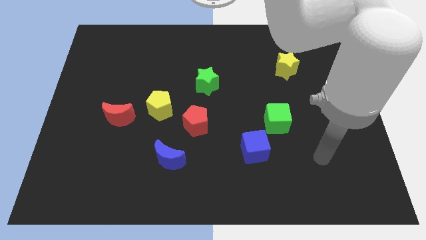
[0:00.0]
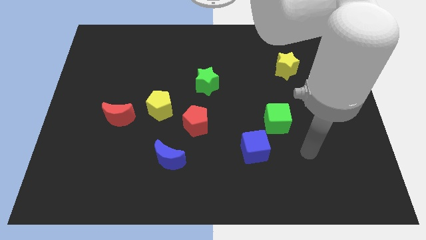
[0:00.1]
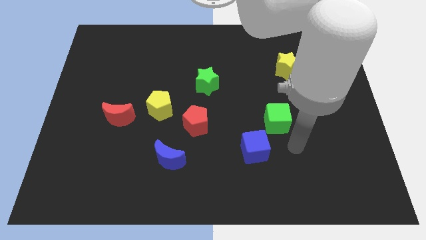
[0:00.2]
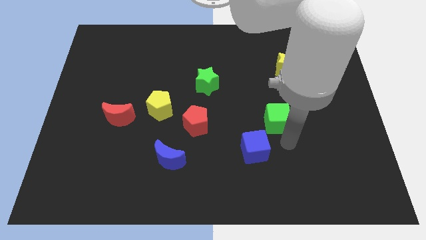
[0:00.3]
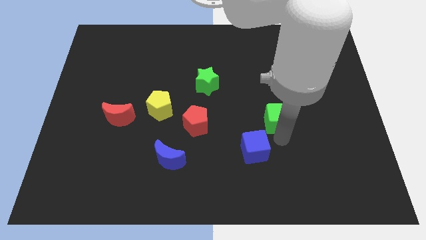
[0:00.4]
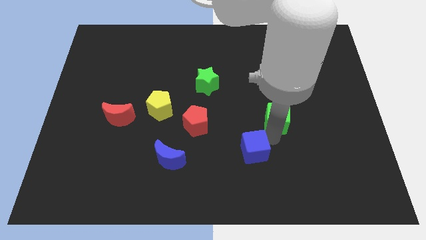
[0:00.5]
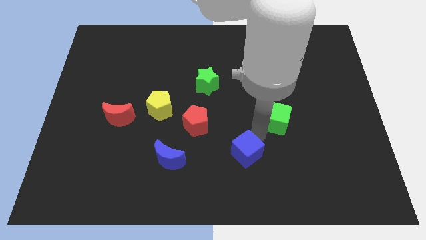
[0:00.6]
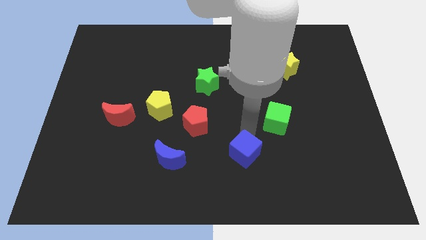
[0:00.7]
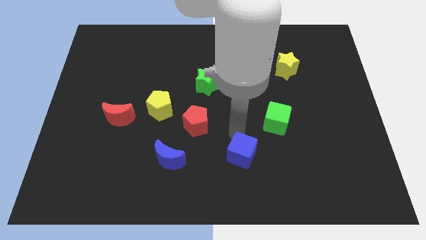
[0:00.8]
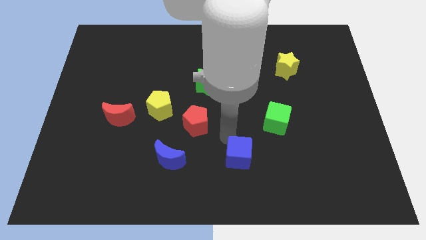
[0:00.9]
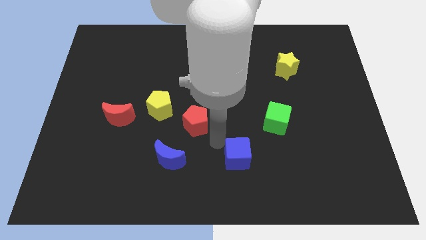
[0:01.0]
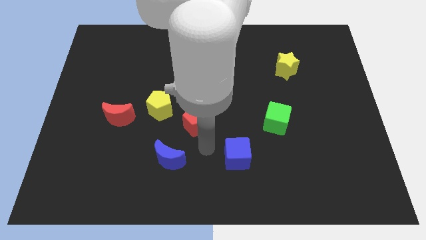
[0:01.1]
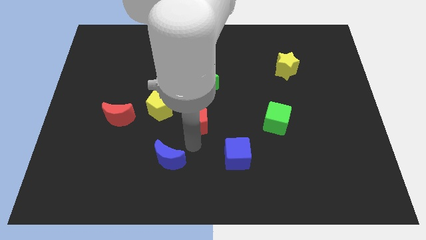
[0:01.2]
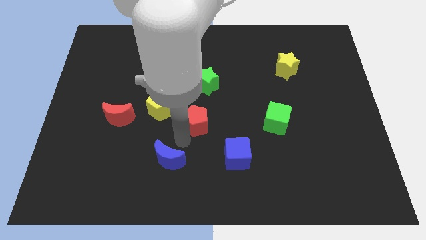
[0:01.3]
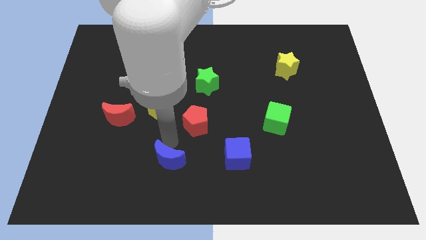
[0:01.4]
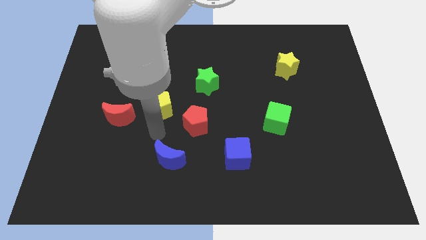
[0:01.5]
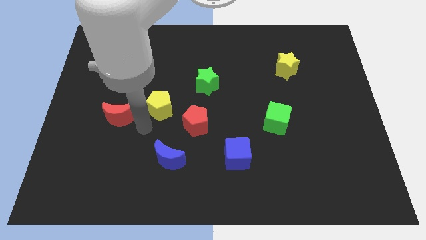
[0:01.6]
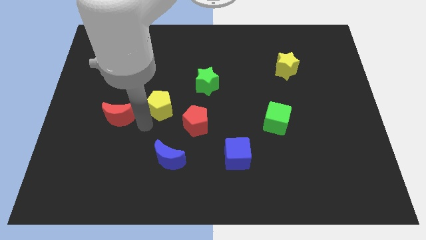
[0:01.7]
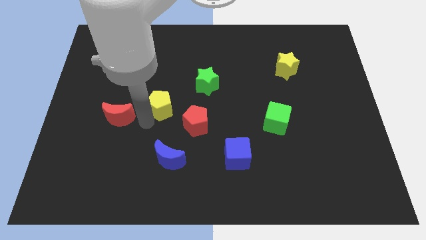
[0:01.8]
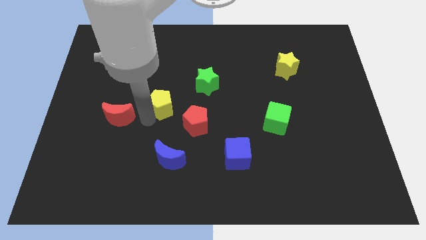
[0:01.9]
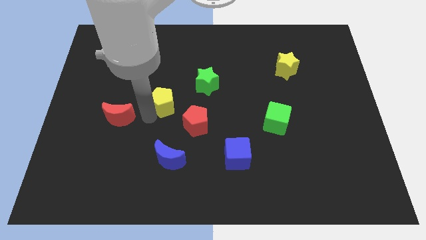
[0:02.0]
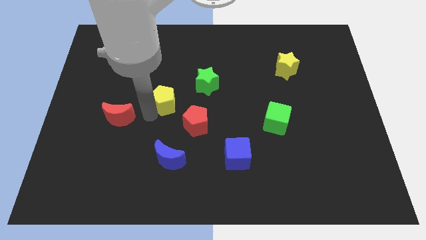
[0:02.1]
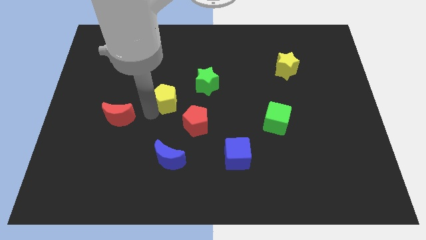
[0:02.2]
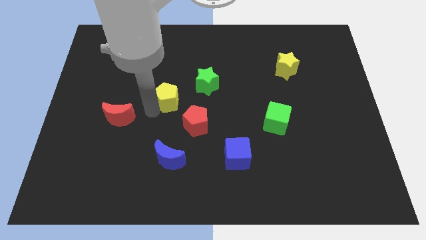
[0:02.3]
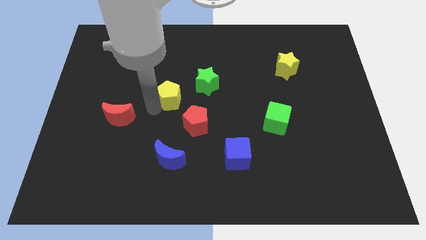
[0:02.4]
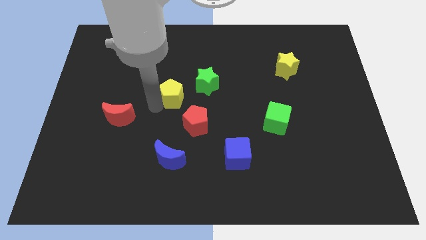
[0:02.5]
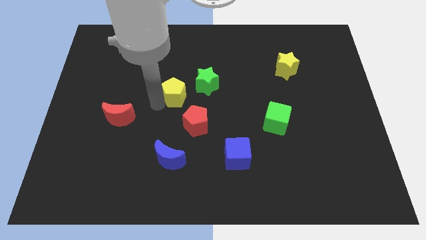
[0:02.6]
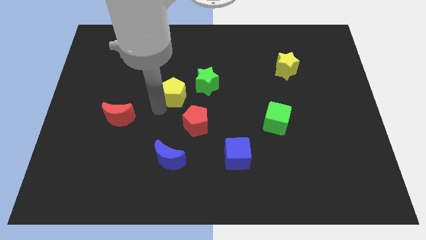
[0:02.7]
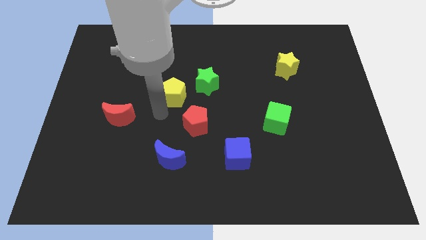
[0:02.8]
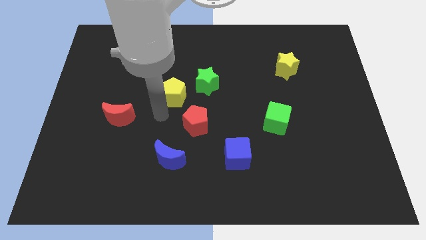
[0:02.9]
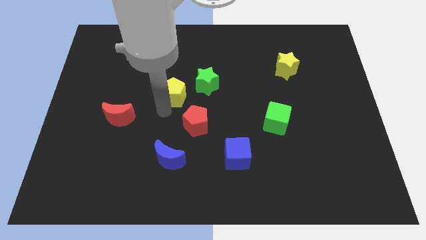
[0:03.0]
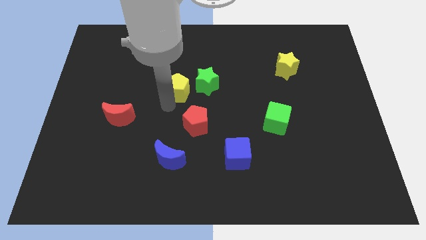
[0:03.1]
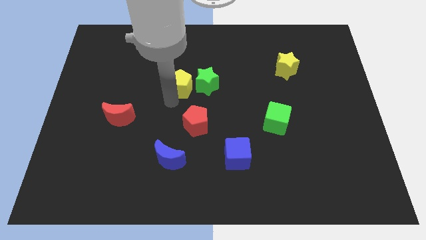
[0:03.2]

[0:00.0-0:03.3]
slide the yellow pentagon diagonally upwards and right somewhat

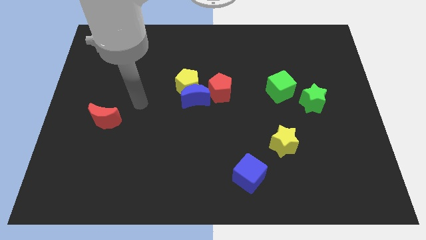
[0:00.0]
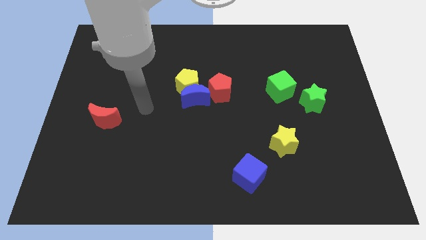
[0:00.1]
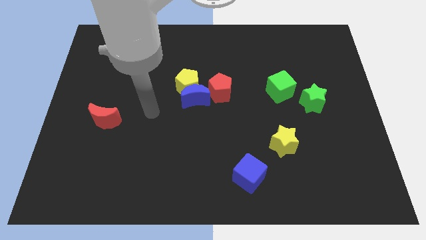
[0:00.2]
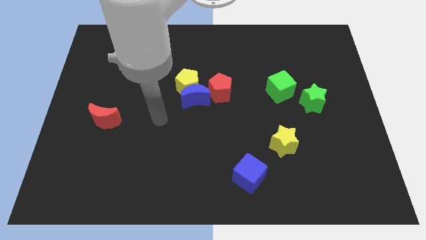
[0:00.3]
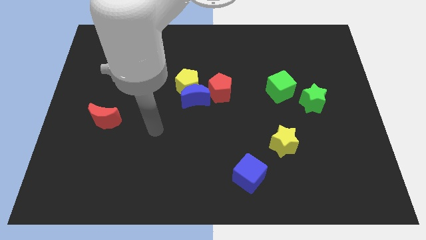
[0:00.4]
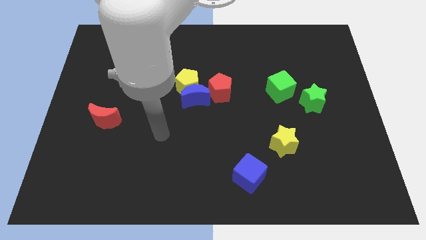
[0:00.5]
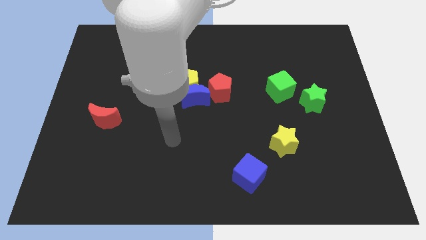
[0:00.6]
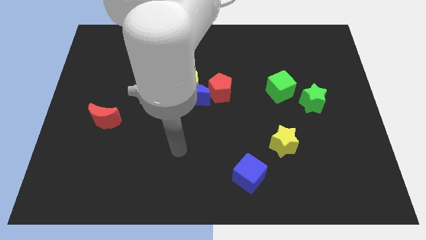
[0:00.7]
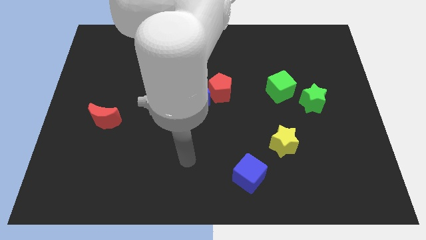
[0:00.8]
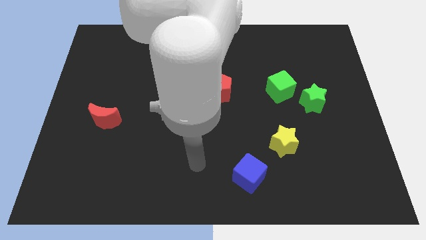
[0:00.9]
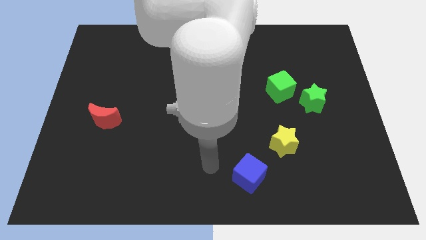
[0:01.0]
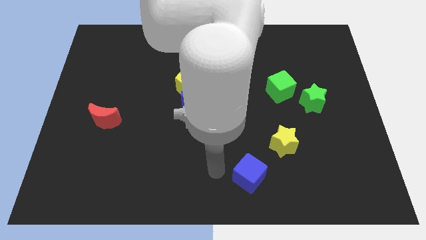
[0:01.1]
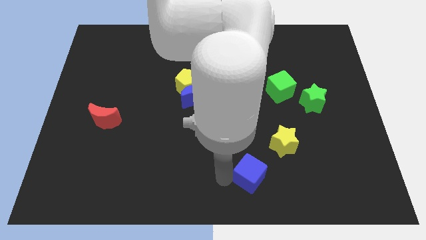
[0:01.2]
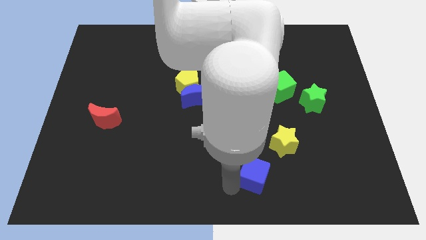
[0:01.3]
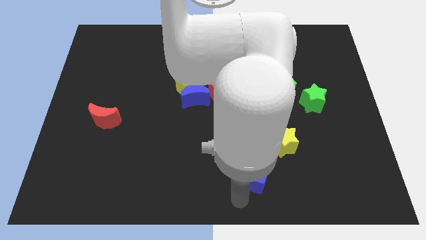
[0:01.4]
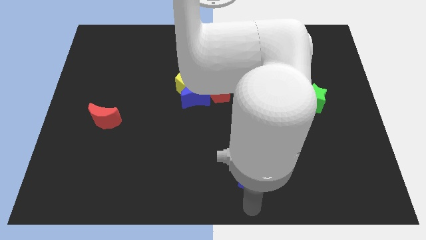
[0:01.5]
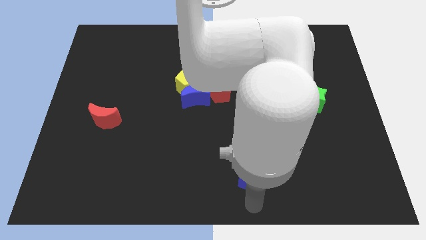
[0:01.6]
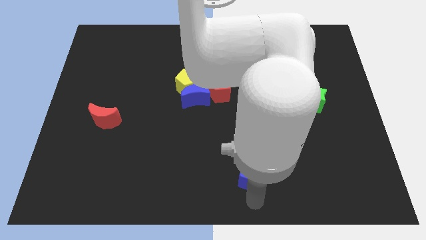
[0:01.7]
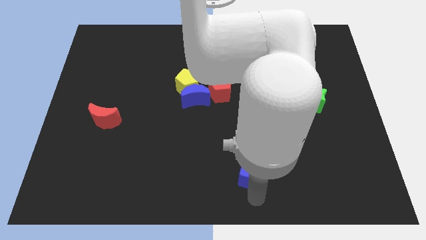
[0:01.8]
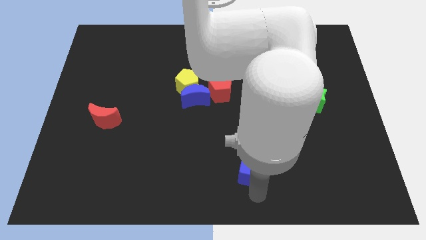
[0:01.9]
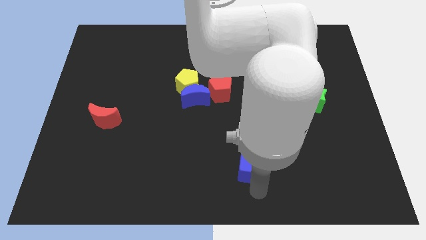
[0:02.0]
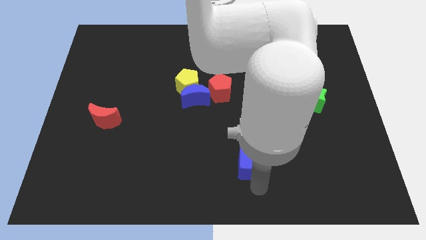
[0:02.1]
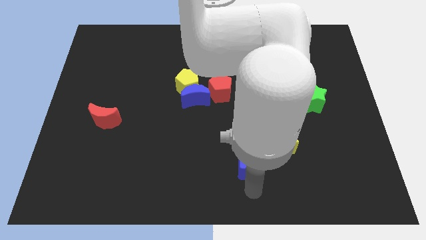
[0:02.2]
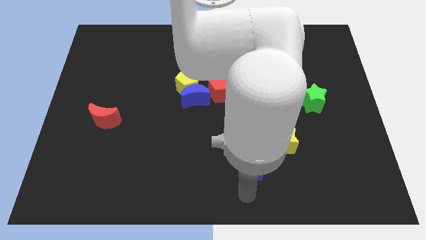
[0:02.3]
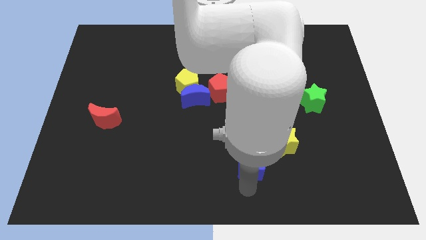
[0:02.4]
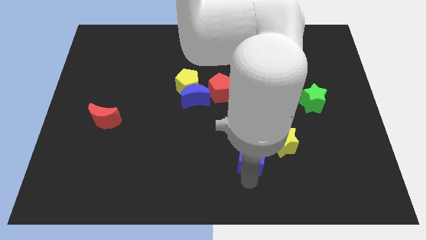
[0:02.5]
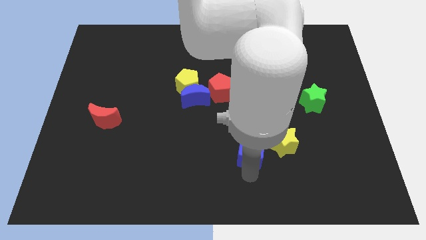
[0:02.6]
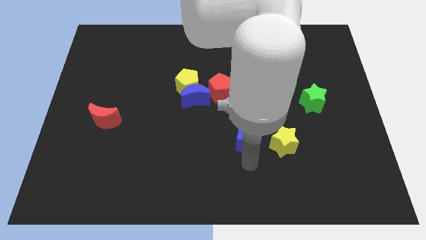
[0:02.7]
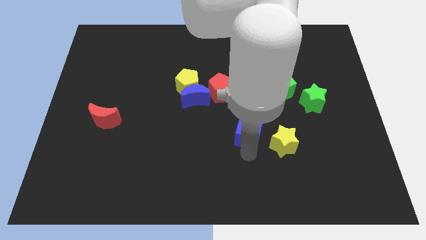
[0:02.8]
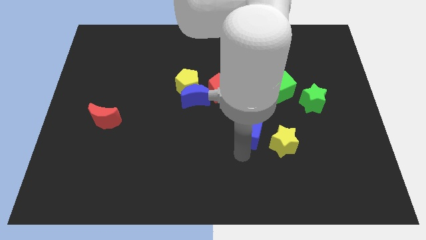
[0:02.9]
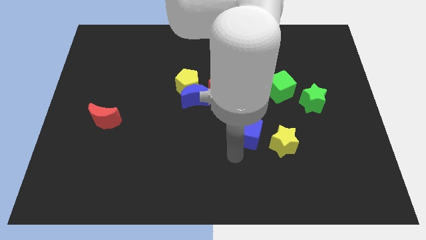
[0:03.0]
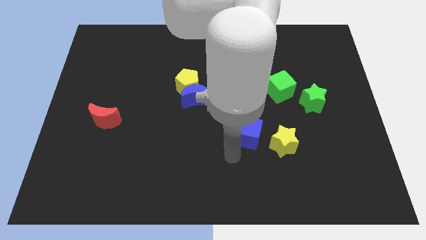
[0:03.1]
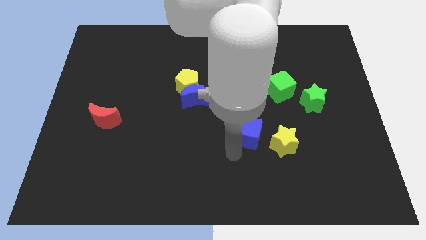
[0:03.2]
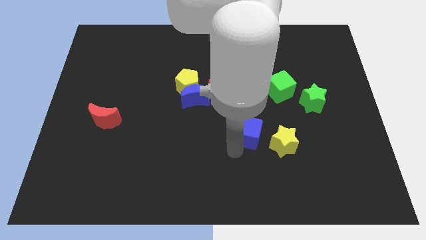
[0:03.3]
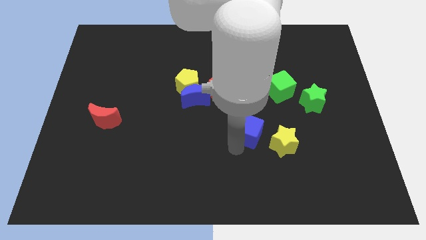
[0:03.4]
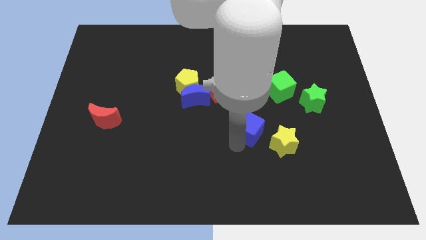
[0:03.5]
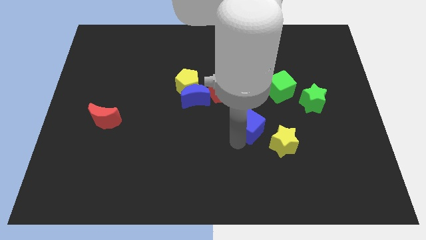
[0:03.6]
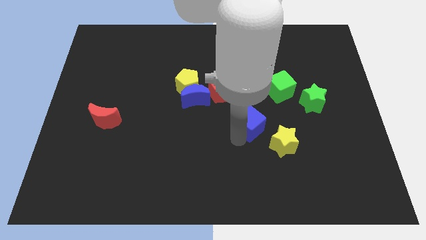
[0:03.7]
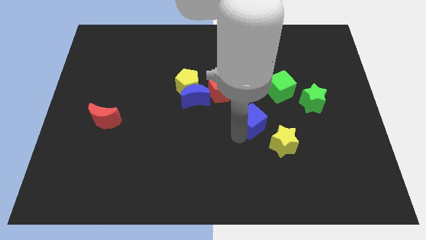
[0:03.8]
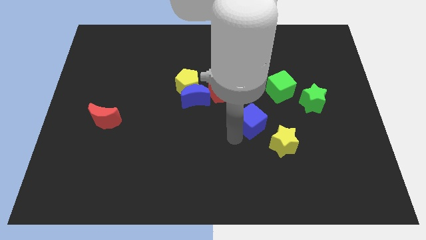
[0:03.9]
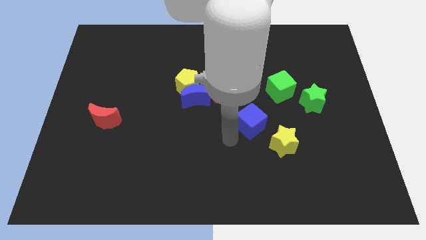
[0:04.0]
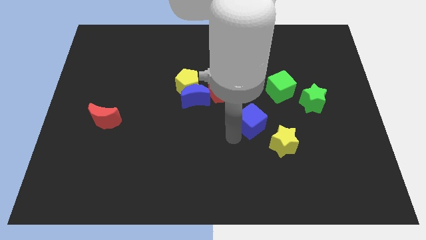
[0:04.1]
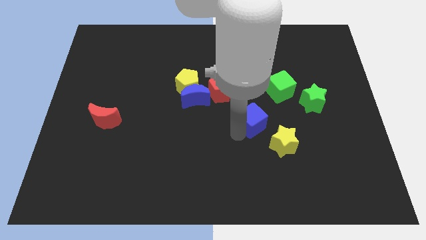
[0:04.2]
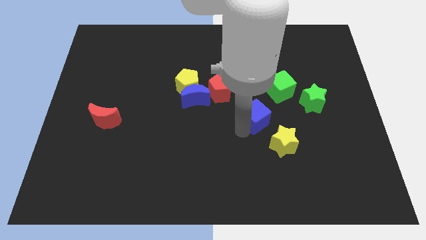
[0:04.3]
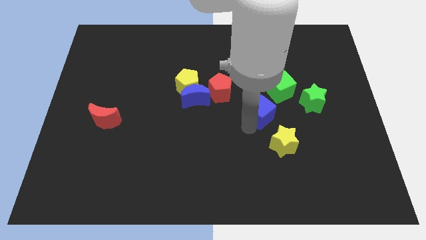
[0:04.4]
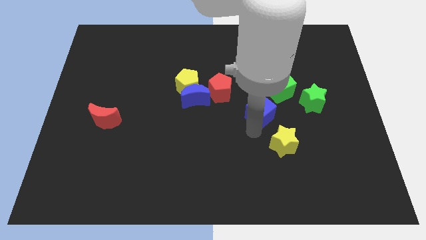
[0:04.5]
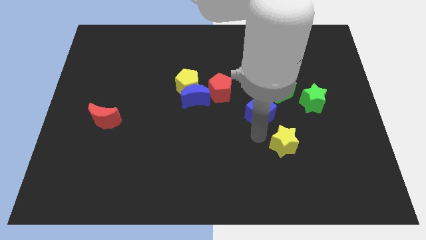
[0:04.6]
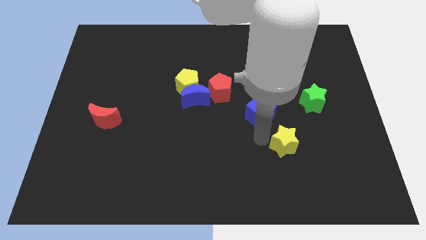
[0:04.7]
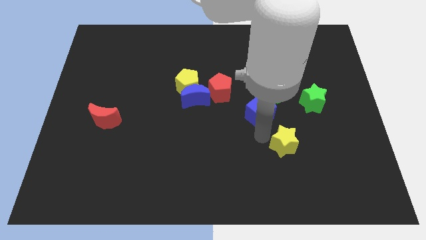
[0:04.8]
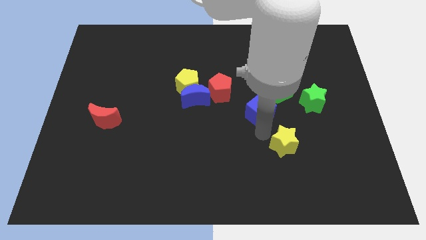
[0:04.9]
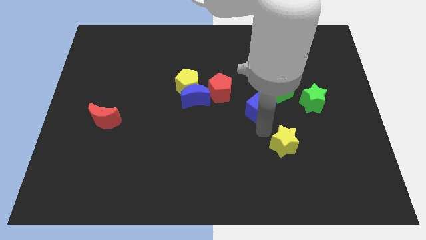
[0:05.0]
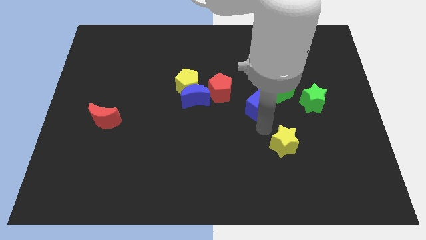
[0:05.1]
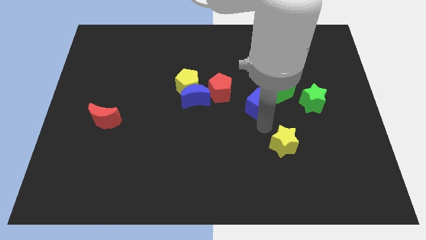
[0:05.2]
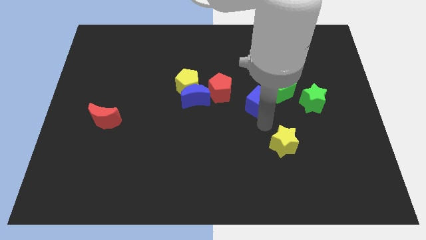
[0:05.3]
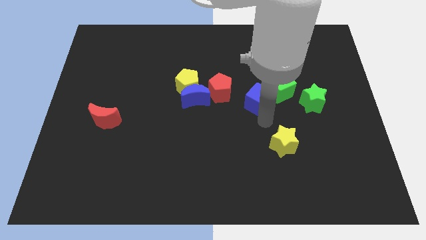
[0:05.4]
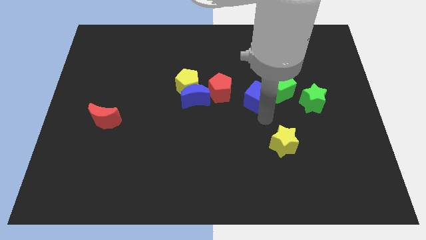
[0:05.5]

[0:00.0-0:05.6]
push the blue cube up
